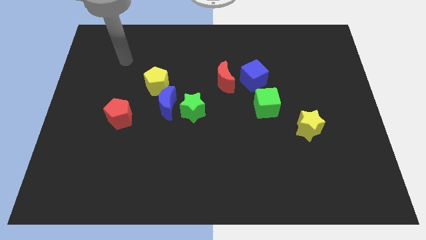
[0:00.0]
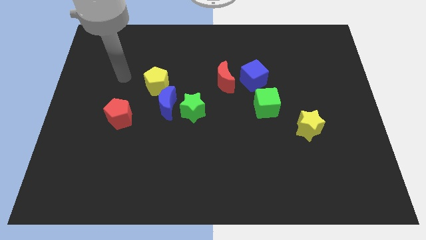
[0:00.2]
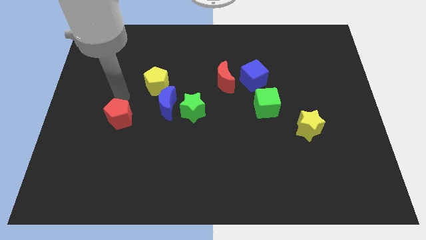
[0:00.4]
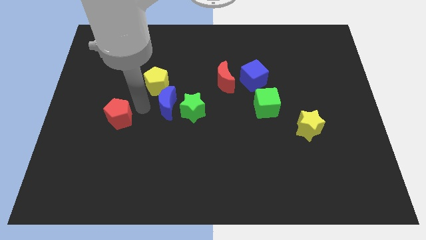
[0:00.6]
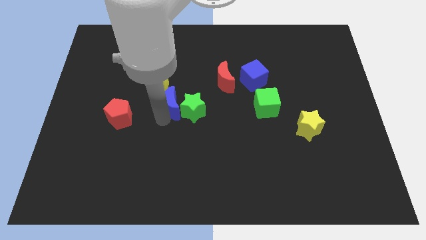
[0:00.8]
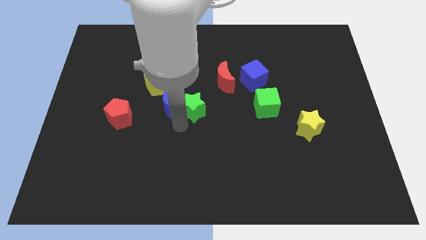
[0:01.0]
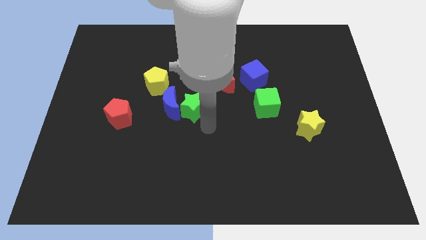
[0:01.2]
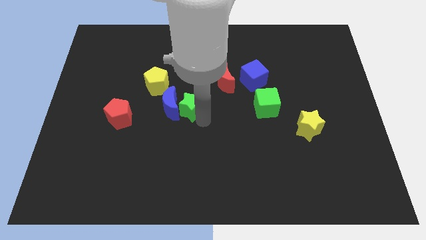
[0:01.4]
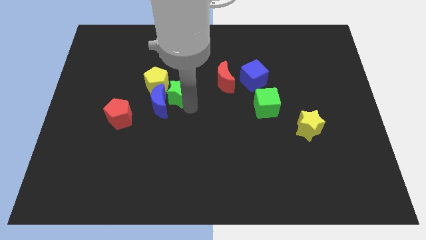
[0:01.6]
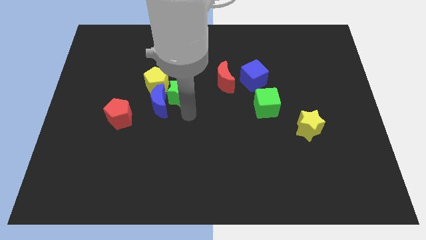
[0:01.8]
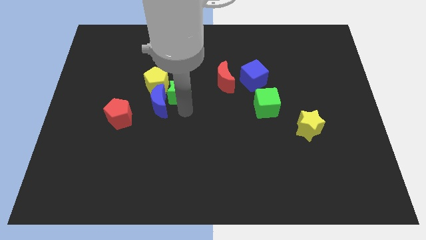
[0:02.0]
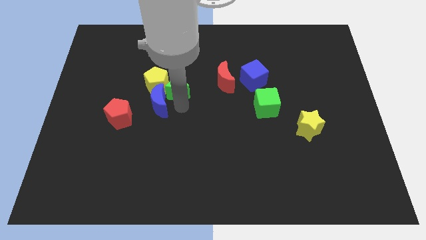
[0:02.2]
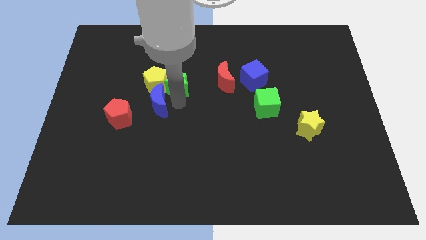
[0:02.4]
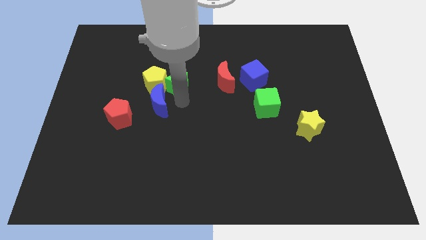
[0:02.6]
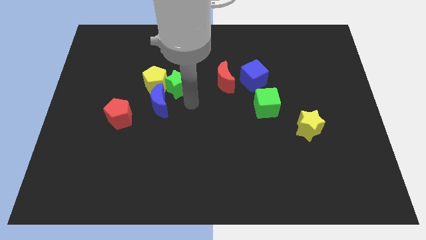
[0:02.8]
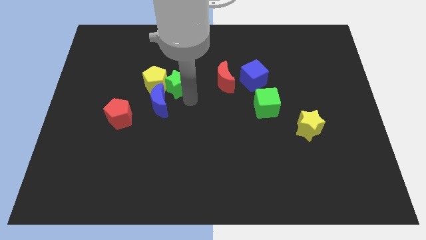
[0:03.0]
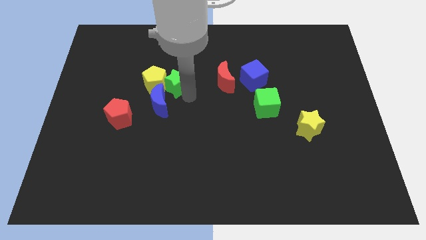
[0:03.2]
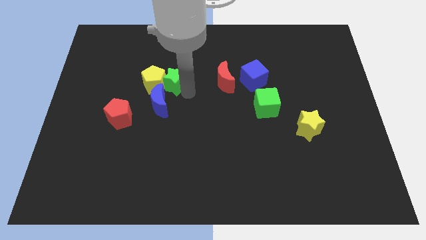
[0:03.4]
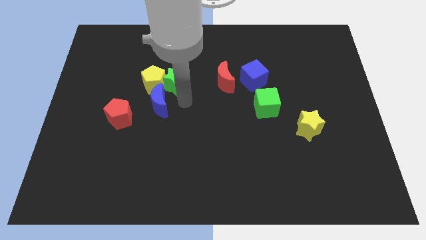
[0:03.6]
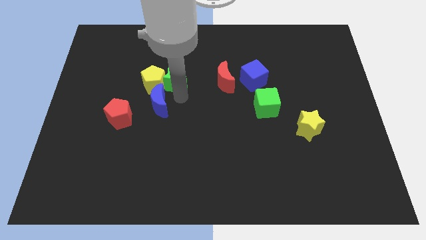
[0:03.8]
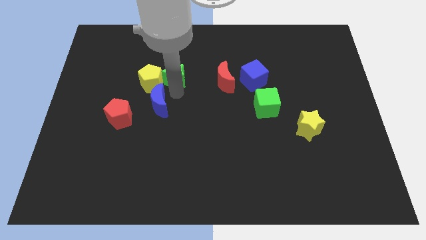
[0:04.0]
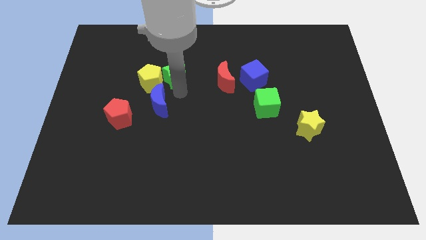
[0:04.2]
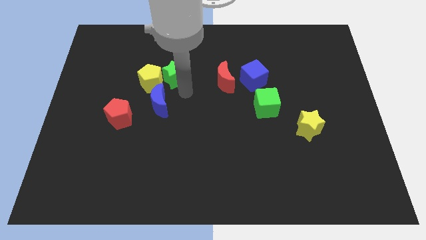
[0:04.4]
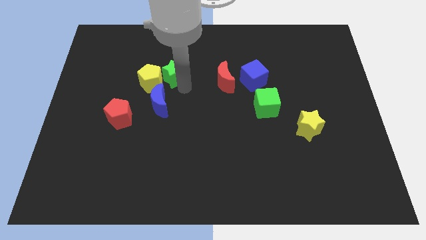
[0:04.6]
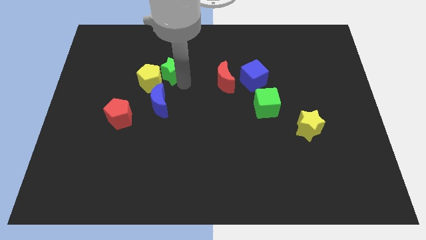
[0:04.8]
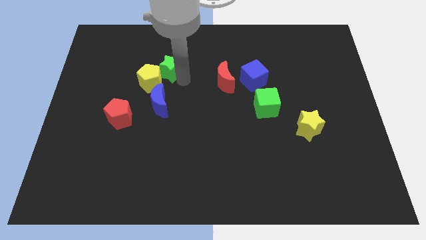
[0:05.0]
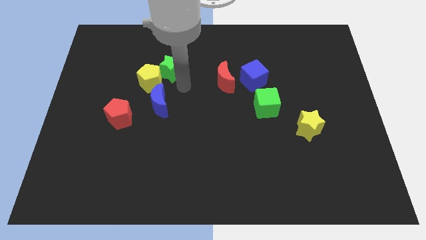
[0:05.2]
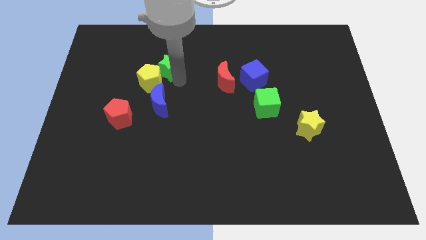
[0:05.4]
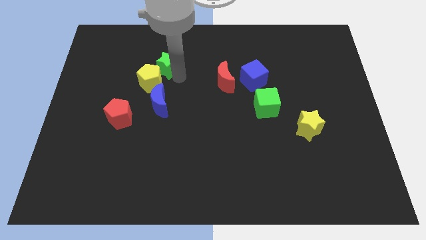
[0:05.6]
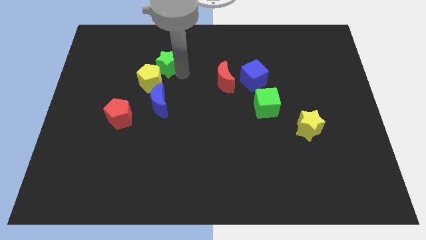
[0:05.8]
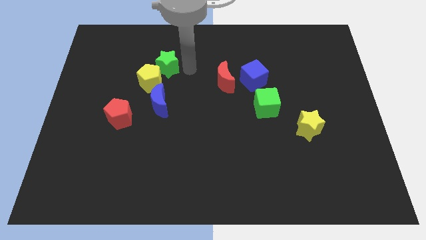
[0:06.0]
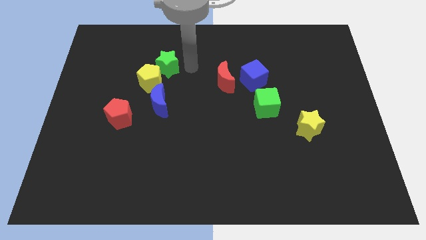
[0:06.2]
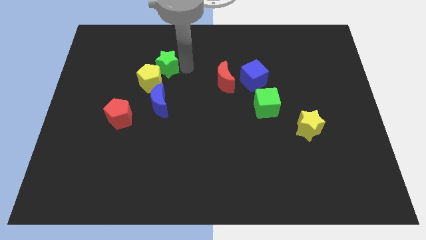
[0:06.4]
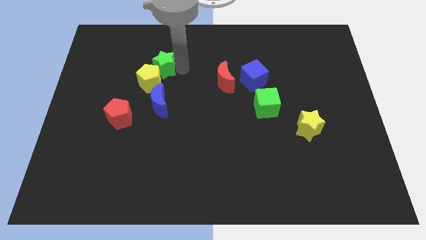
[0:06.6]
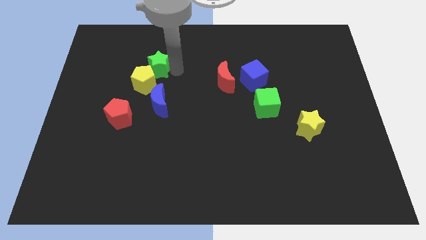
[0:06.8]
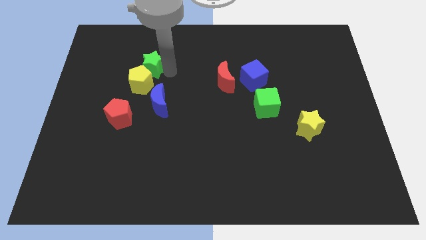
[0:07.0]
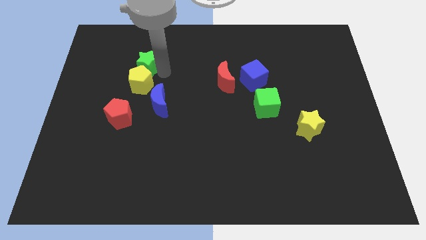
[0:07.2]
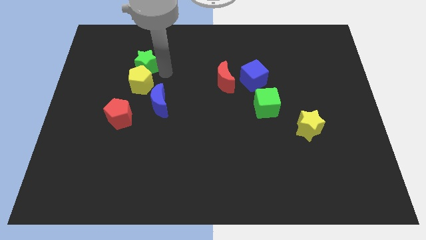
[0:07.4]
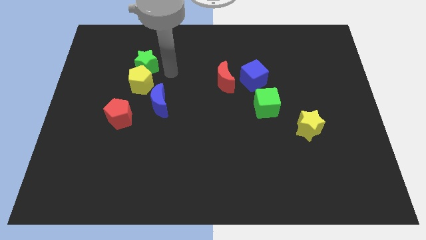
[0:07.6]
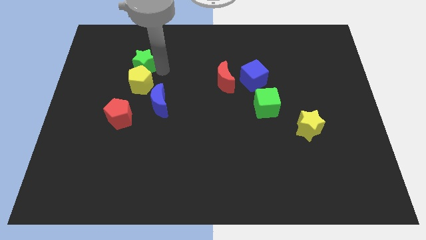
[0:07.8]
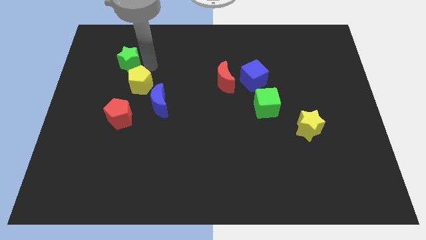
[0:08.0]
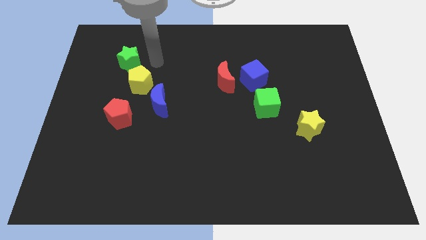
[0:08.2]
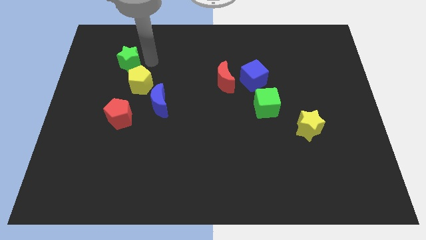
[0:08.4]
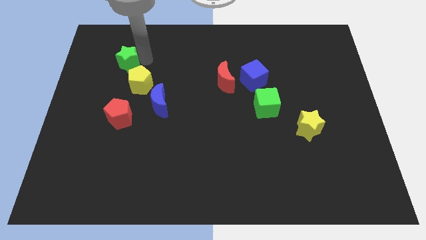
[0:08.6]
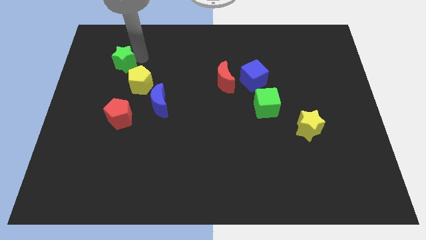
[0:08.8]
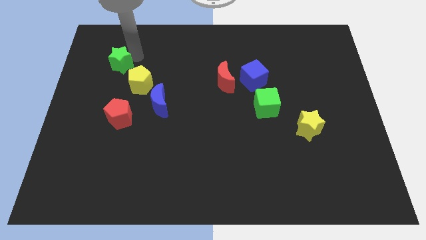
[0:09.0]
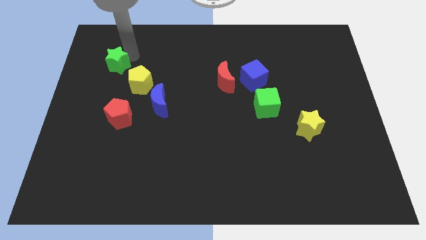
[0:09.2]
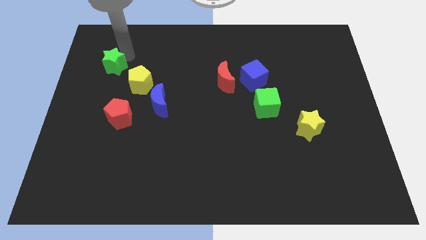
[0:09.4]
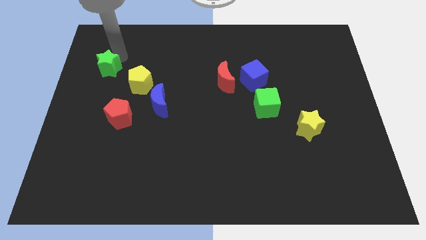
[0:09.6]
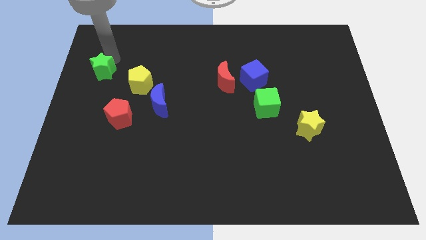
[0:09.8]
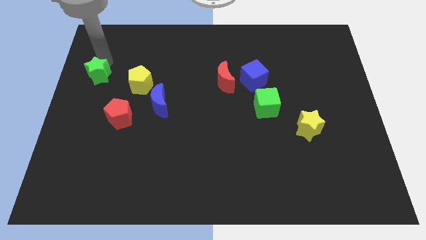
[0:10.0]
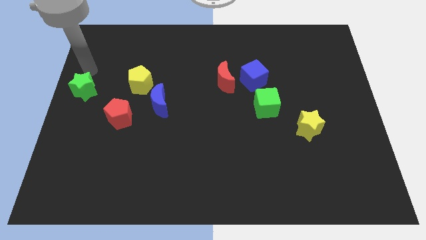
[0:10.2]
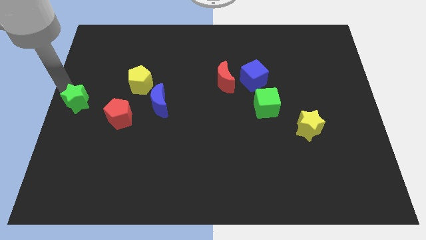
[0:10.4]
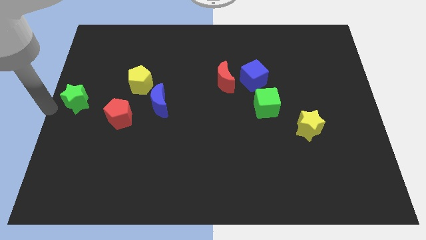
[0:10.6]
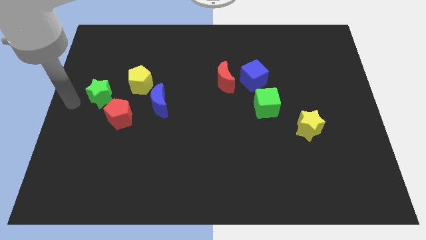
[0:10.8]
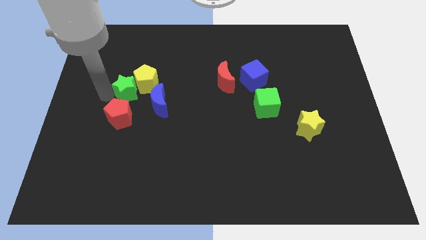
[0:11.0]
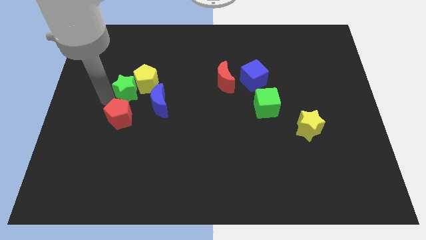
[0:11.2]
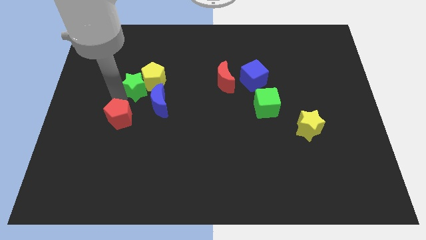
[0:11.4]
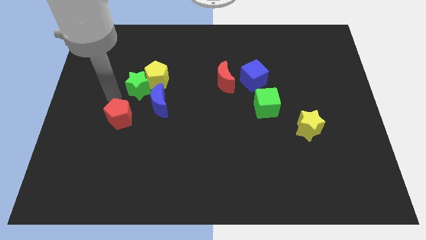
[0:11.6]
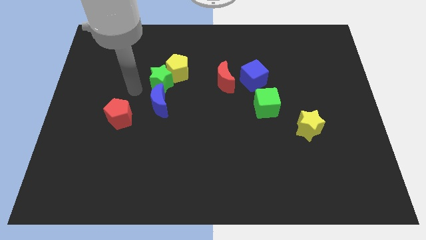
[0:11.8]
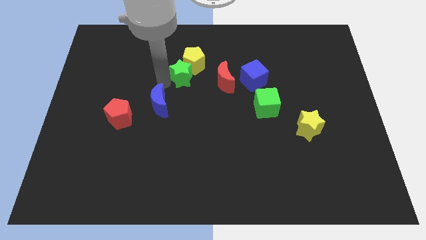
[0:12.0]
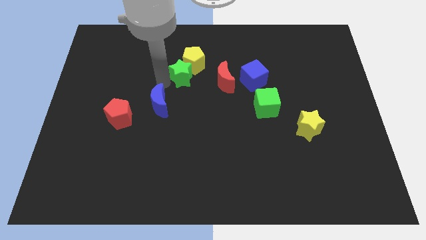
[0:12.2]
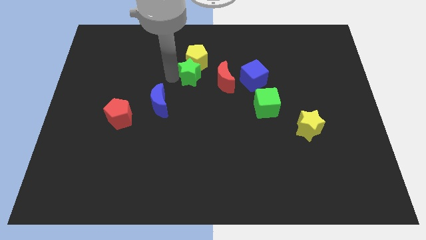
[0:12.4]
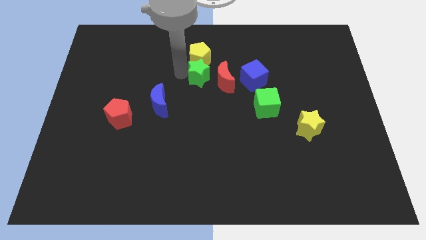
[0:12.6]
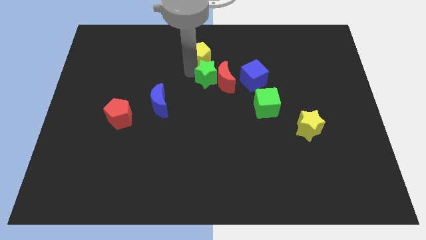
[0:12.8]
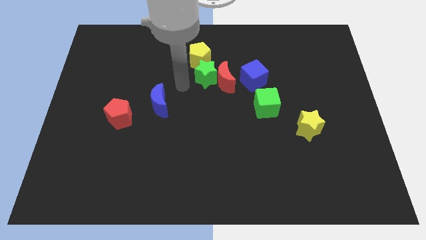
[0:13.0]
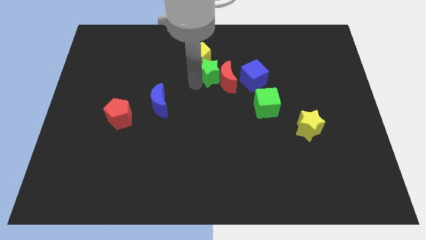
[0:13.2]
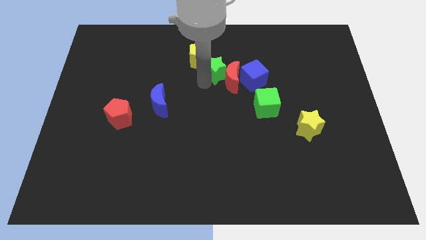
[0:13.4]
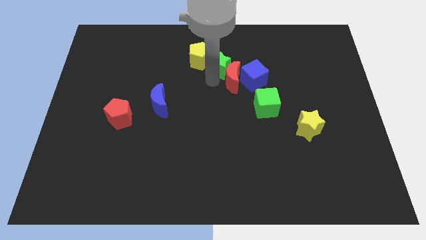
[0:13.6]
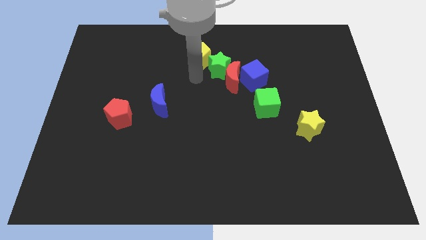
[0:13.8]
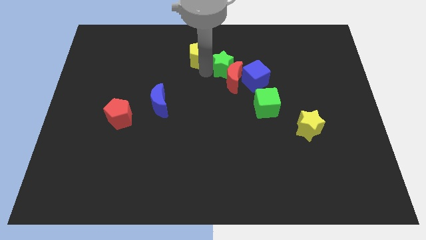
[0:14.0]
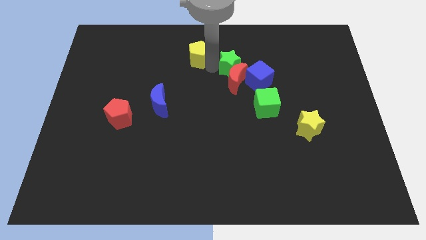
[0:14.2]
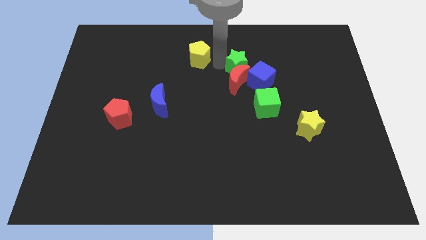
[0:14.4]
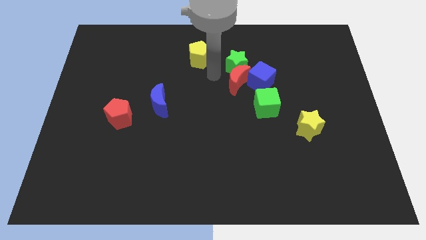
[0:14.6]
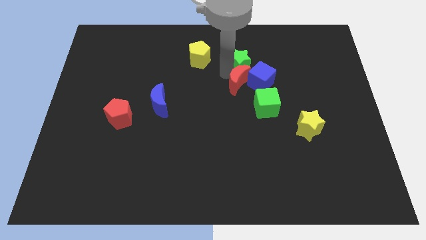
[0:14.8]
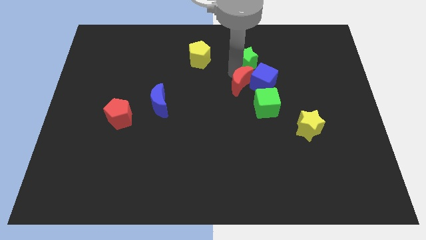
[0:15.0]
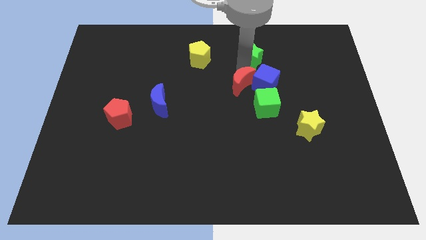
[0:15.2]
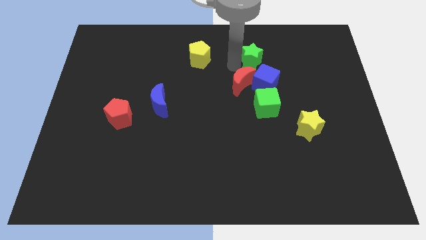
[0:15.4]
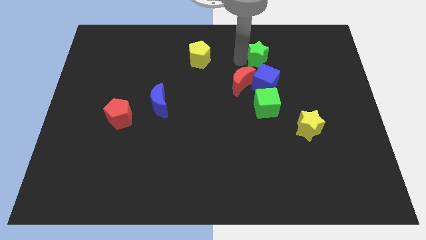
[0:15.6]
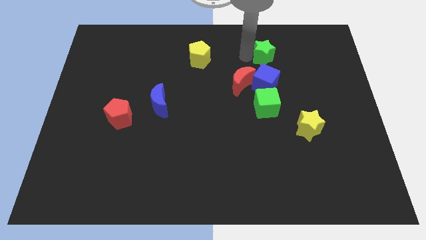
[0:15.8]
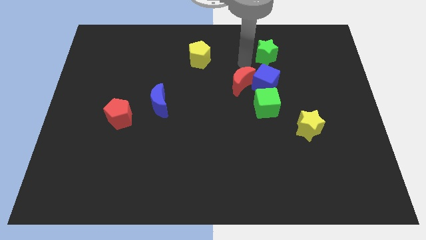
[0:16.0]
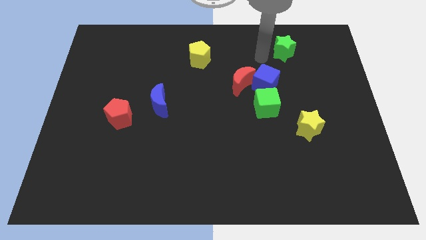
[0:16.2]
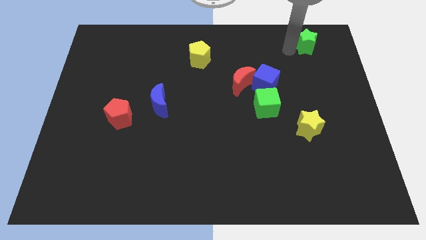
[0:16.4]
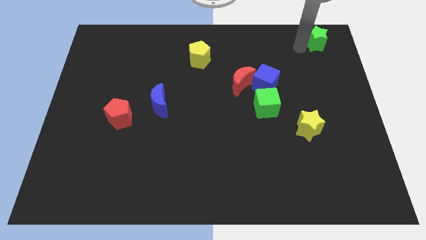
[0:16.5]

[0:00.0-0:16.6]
push the green star to the top right of the board
